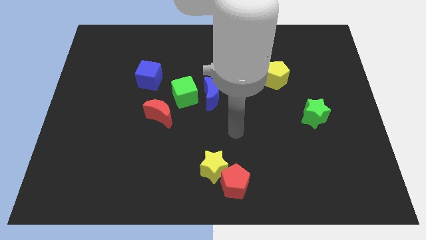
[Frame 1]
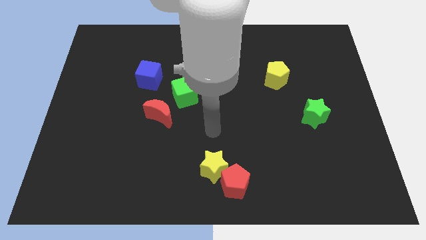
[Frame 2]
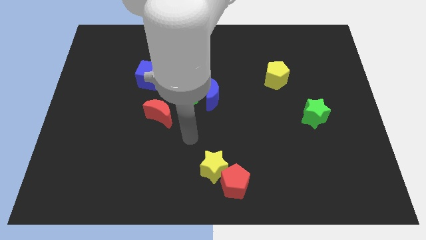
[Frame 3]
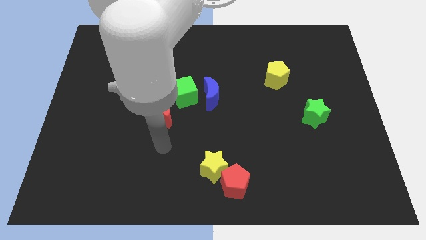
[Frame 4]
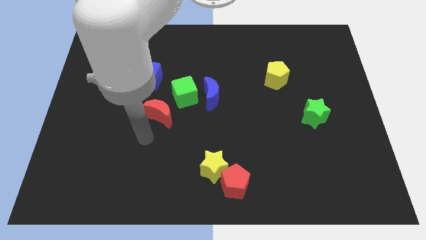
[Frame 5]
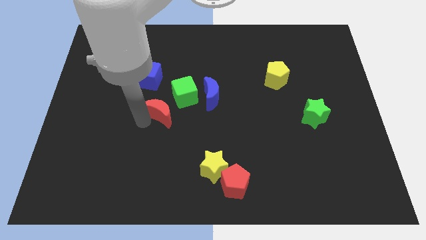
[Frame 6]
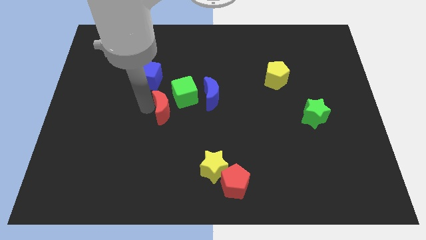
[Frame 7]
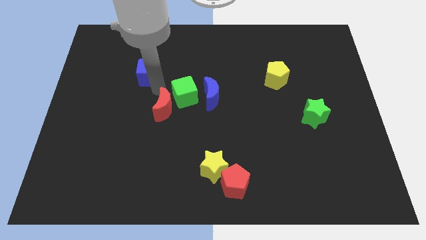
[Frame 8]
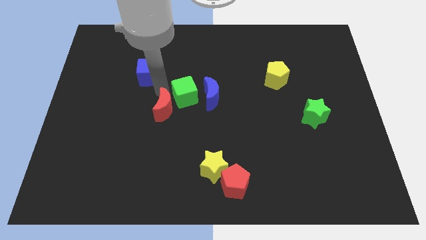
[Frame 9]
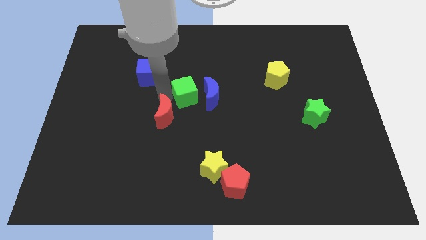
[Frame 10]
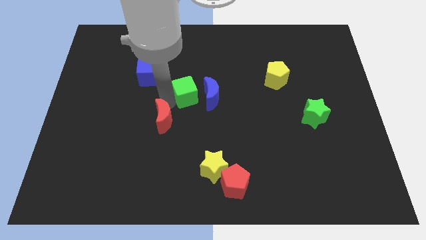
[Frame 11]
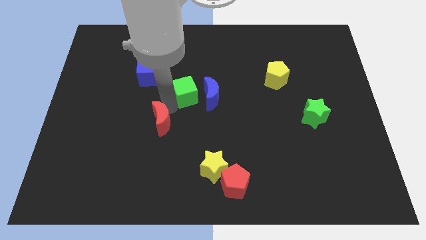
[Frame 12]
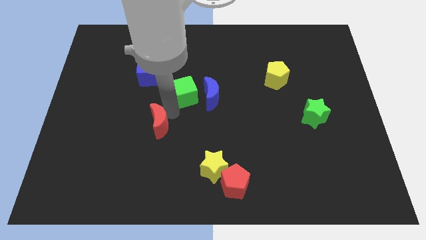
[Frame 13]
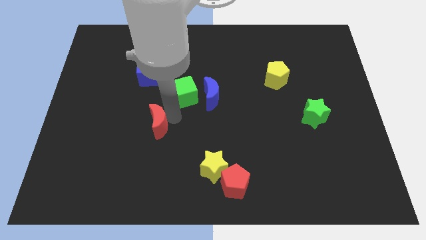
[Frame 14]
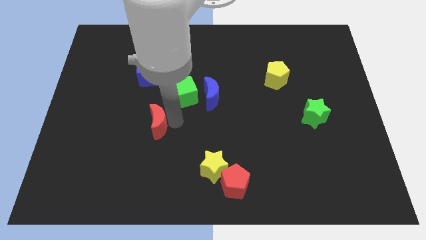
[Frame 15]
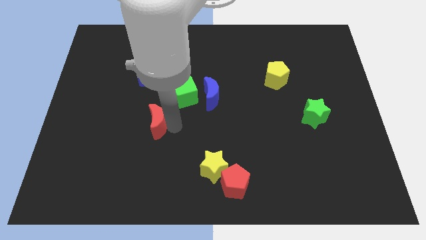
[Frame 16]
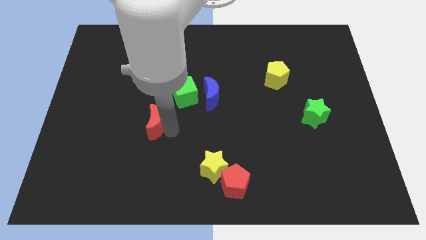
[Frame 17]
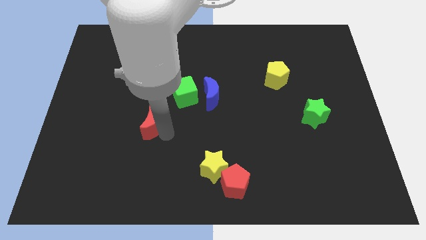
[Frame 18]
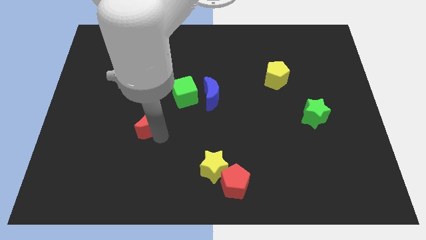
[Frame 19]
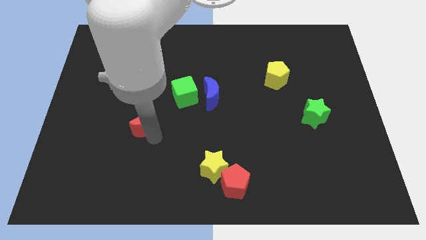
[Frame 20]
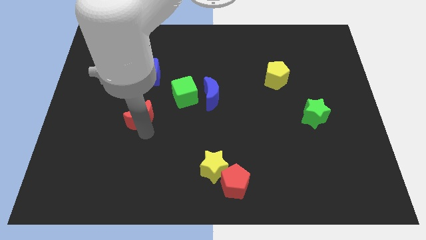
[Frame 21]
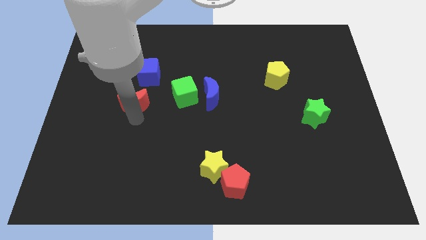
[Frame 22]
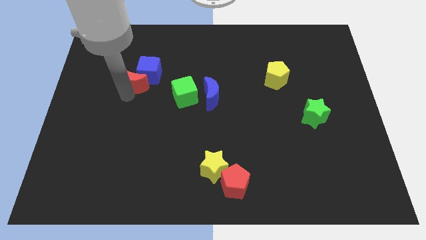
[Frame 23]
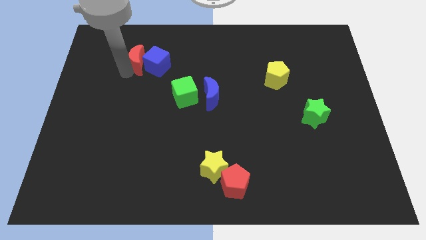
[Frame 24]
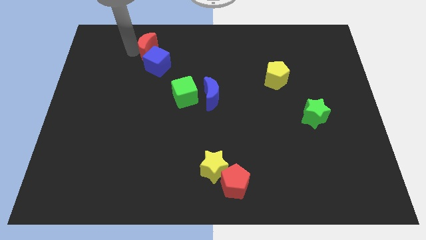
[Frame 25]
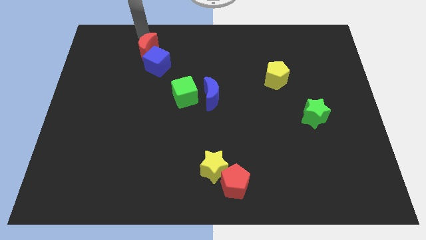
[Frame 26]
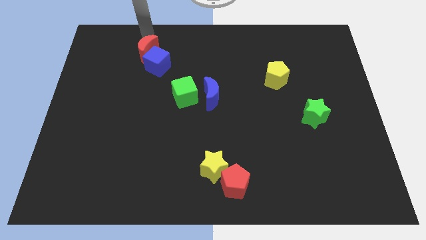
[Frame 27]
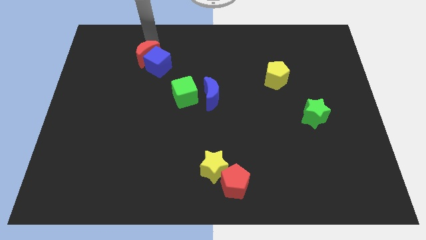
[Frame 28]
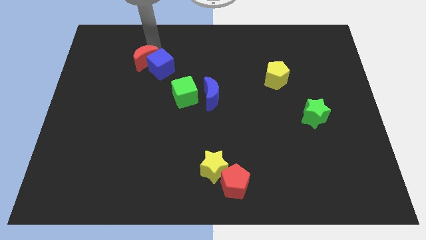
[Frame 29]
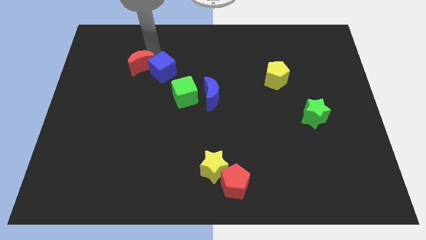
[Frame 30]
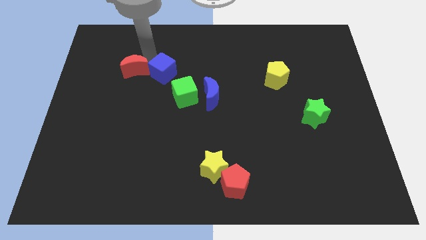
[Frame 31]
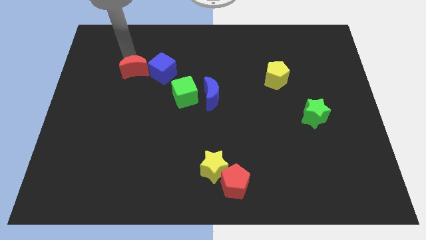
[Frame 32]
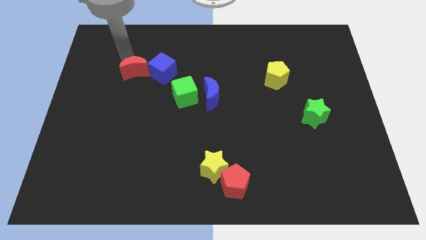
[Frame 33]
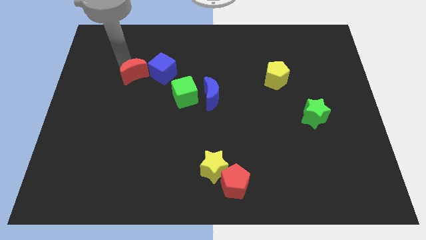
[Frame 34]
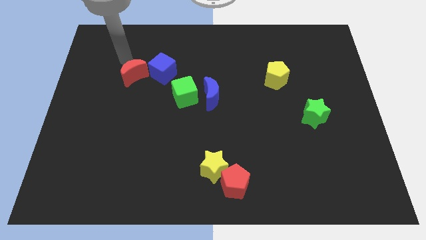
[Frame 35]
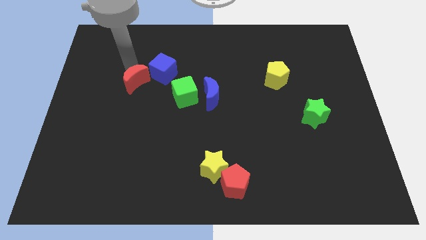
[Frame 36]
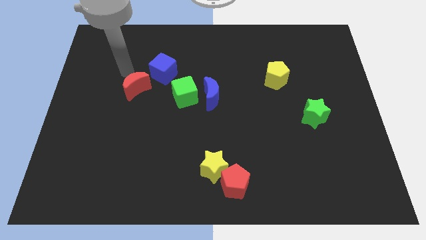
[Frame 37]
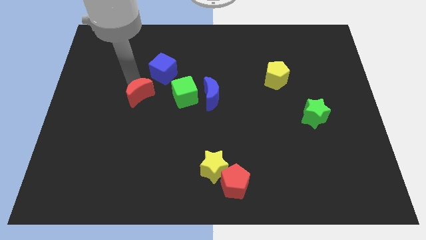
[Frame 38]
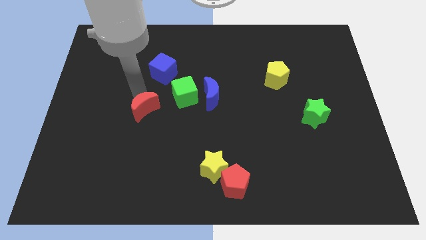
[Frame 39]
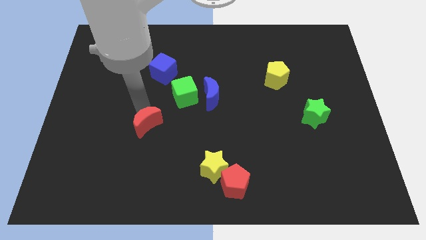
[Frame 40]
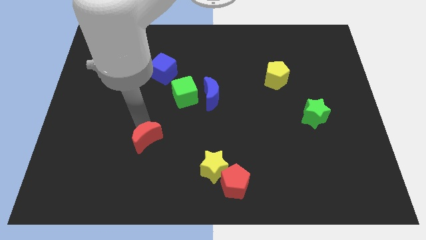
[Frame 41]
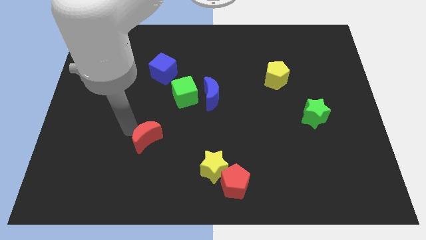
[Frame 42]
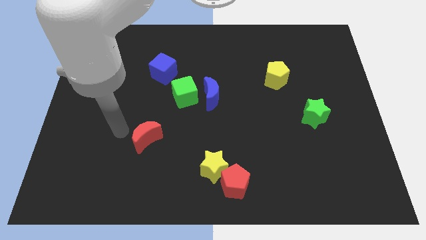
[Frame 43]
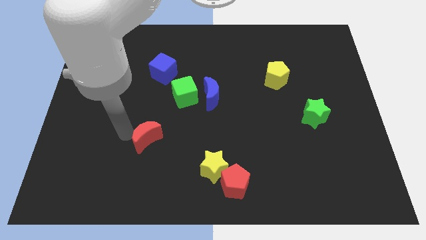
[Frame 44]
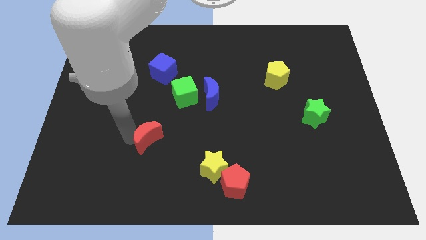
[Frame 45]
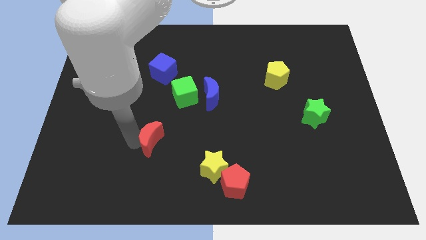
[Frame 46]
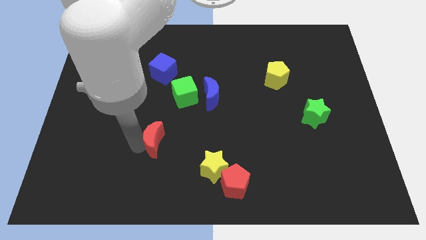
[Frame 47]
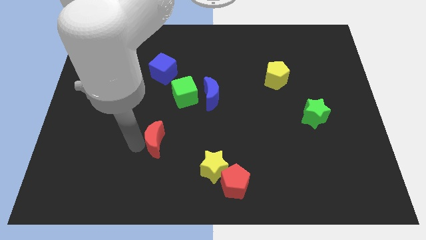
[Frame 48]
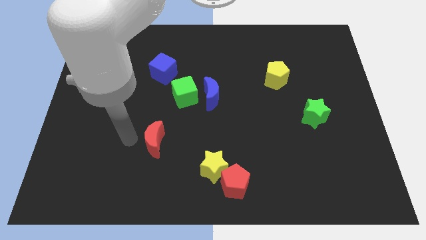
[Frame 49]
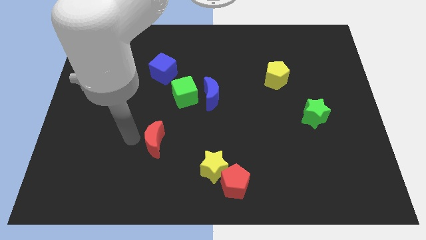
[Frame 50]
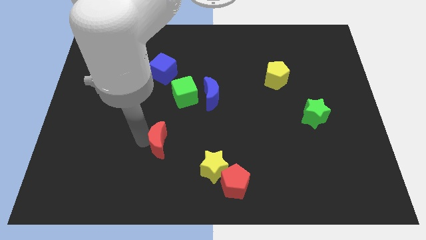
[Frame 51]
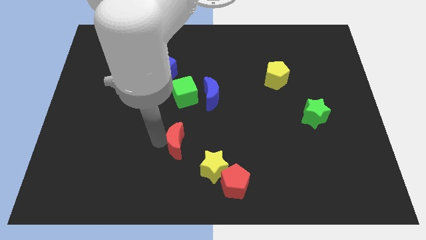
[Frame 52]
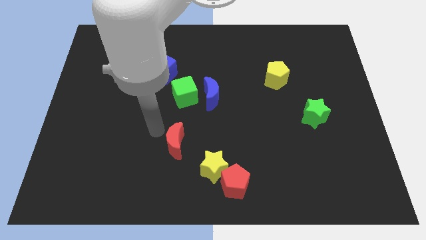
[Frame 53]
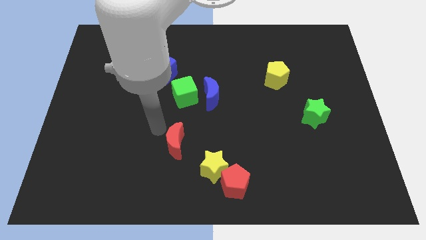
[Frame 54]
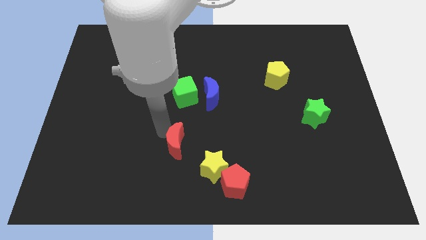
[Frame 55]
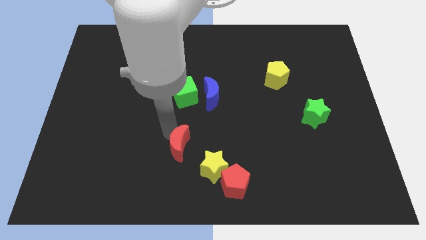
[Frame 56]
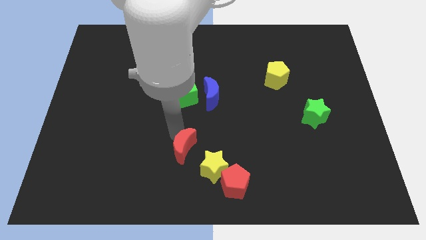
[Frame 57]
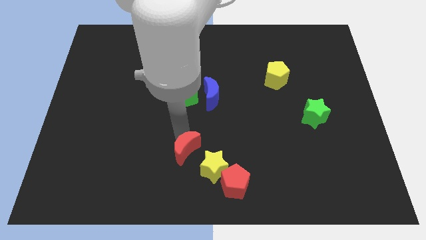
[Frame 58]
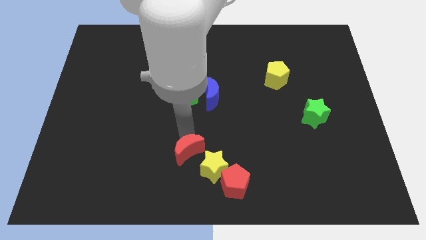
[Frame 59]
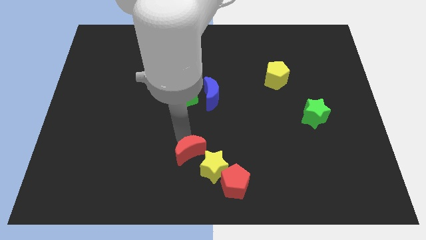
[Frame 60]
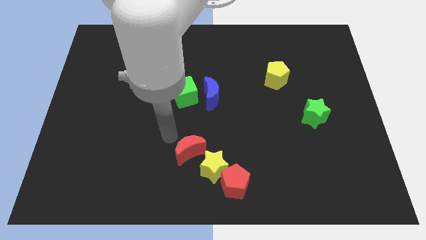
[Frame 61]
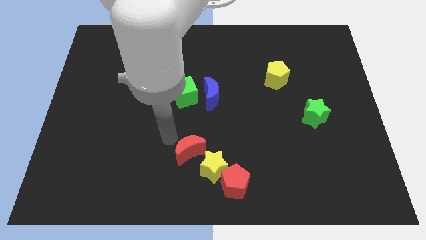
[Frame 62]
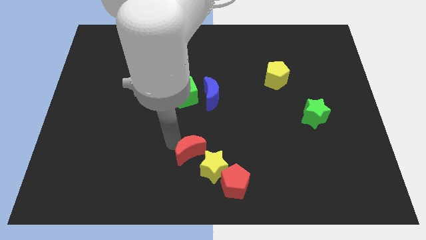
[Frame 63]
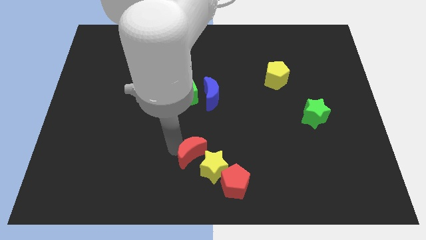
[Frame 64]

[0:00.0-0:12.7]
move the red moon to the yellow star

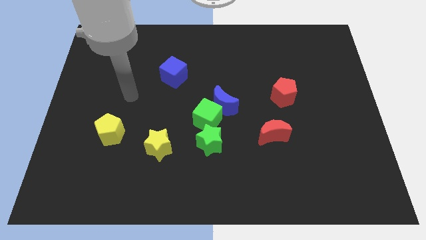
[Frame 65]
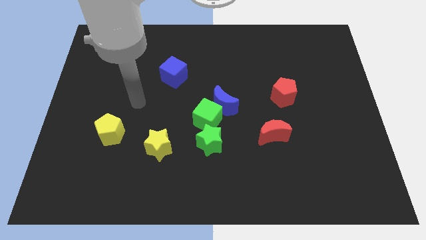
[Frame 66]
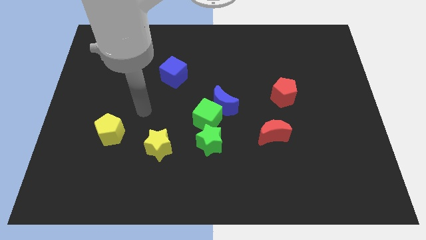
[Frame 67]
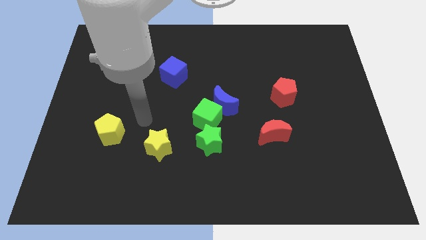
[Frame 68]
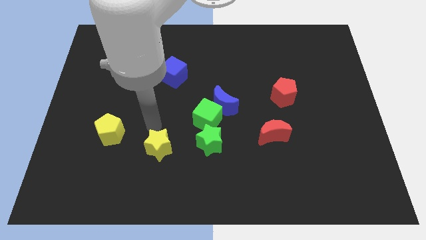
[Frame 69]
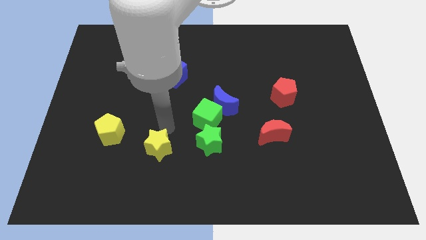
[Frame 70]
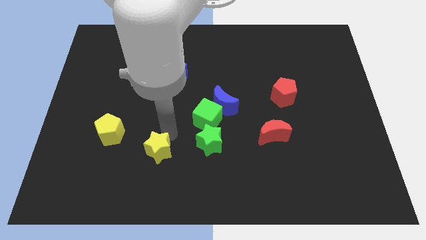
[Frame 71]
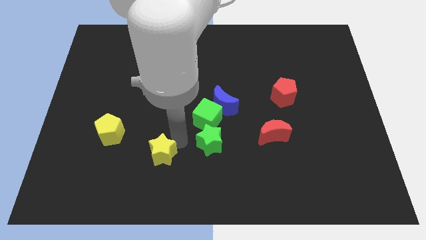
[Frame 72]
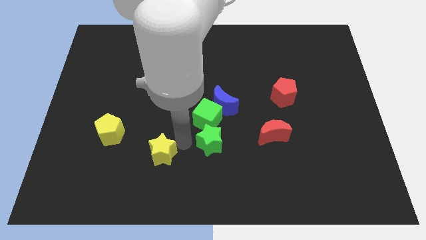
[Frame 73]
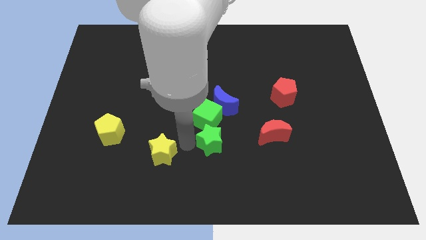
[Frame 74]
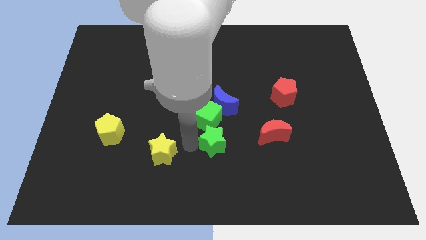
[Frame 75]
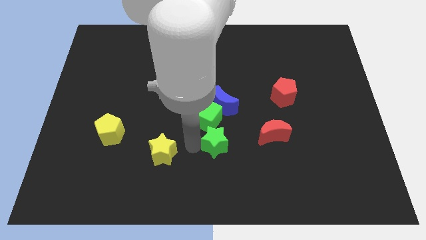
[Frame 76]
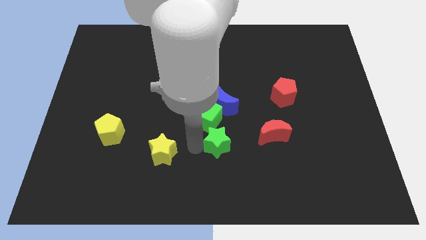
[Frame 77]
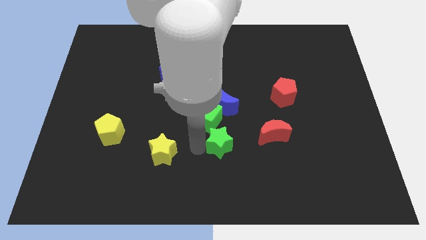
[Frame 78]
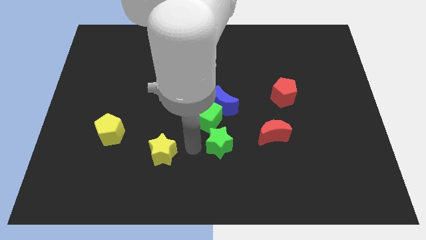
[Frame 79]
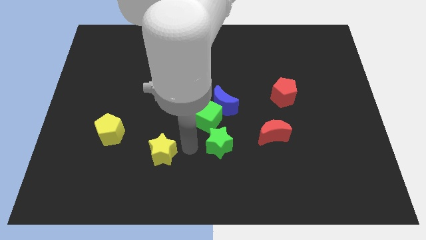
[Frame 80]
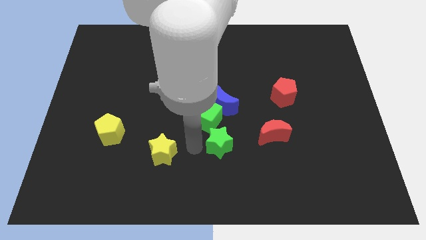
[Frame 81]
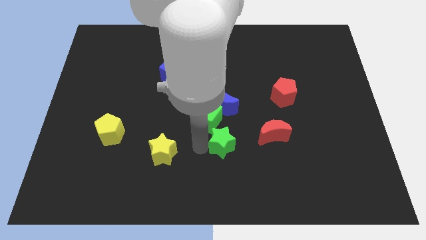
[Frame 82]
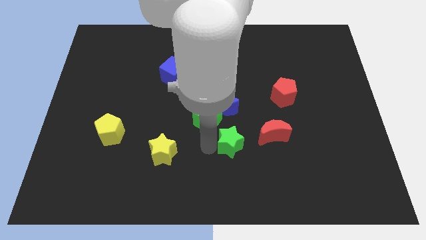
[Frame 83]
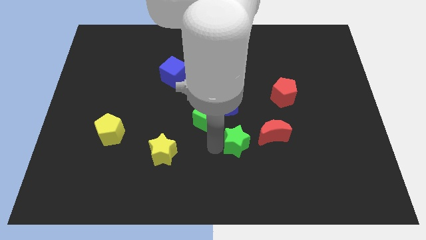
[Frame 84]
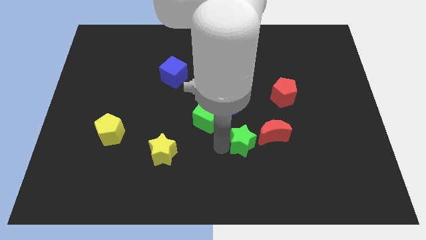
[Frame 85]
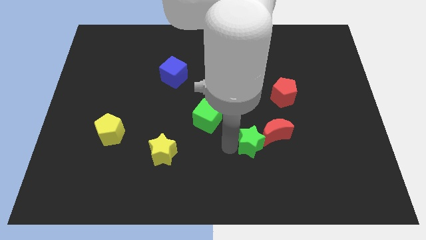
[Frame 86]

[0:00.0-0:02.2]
put the green star towards the red moon
